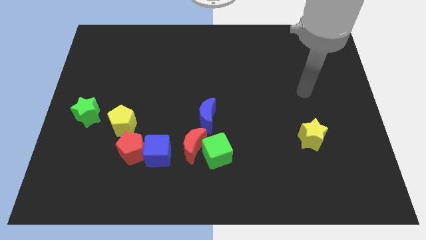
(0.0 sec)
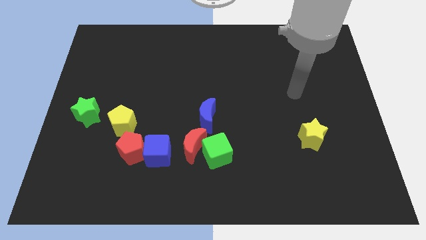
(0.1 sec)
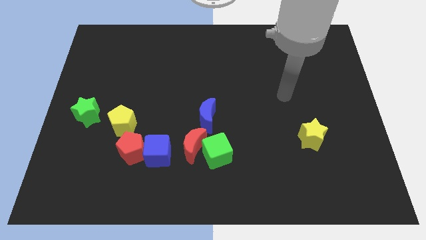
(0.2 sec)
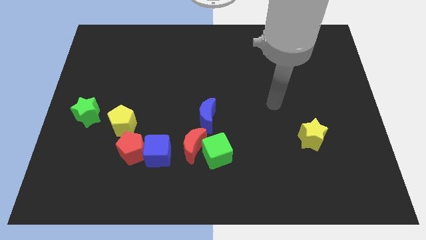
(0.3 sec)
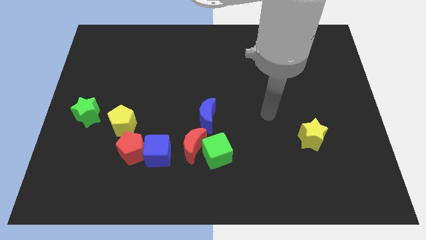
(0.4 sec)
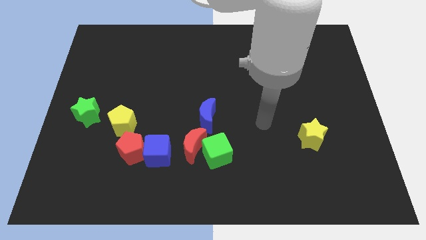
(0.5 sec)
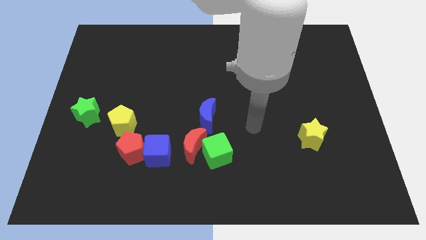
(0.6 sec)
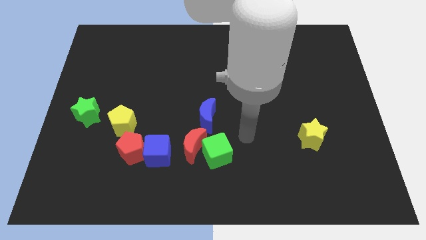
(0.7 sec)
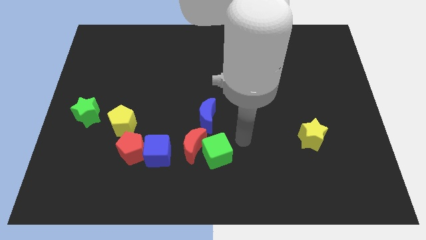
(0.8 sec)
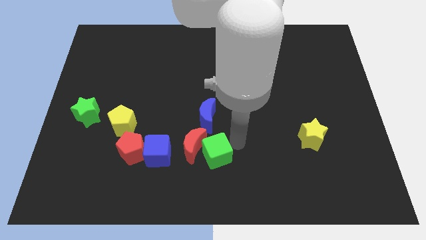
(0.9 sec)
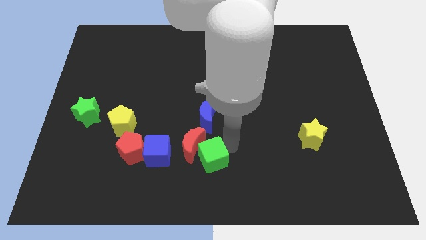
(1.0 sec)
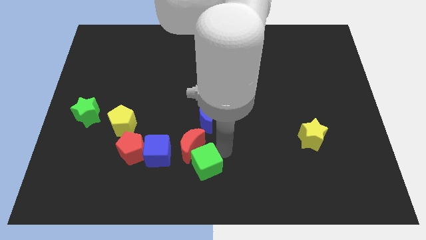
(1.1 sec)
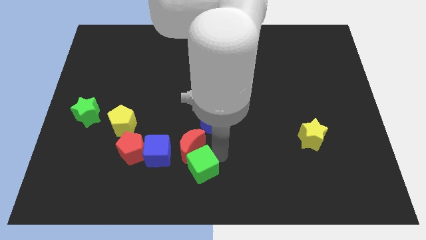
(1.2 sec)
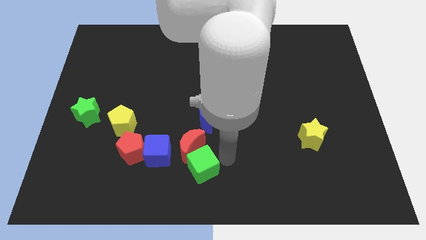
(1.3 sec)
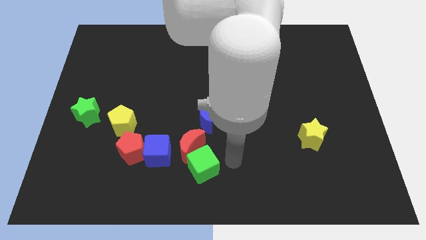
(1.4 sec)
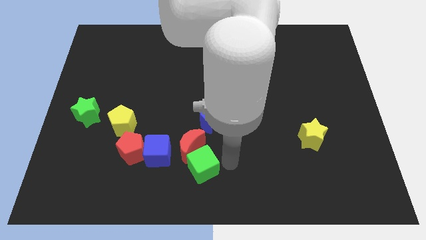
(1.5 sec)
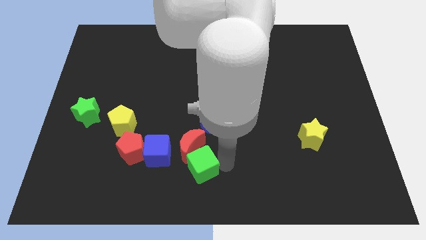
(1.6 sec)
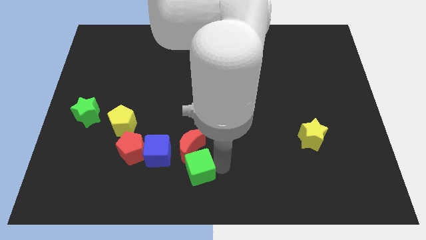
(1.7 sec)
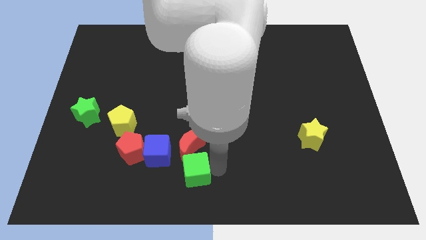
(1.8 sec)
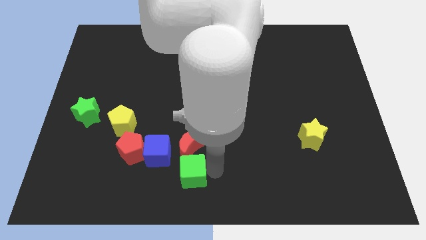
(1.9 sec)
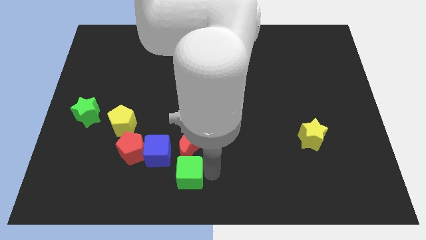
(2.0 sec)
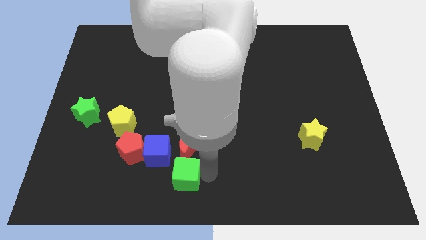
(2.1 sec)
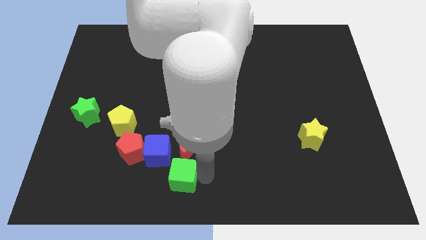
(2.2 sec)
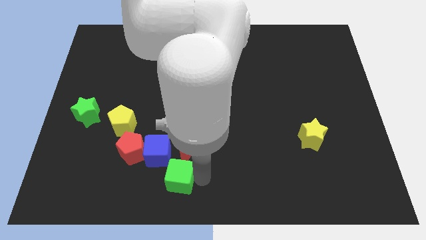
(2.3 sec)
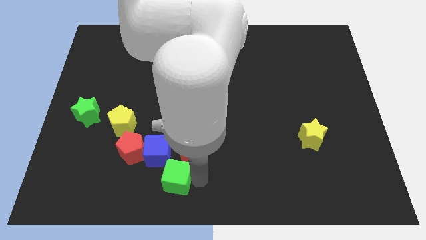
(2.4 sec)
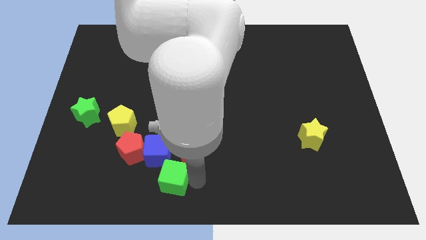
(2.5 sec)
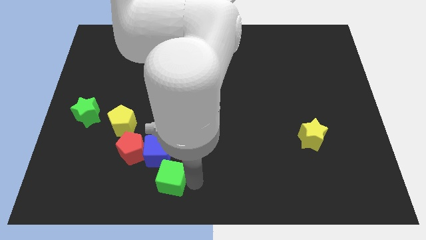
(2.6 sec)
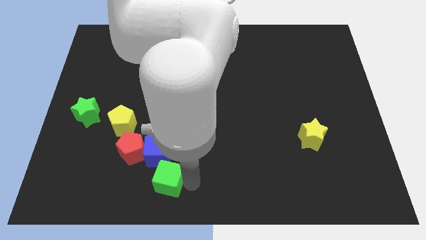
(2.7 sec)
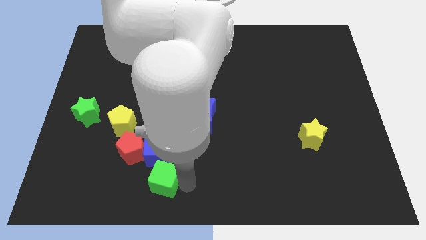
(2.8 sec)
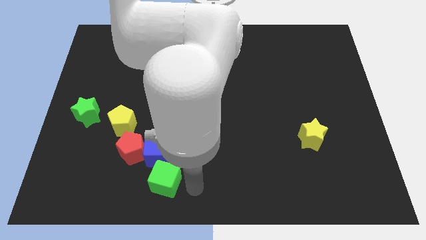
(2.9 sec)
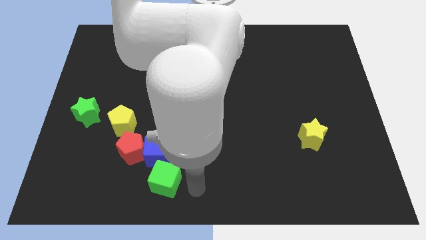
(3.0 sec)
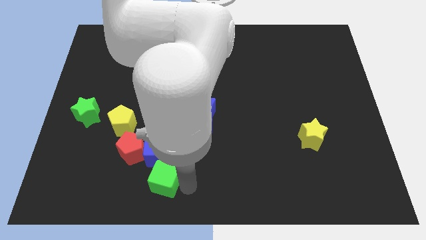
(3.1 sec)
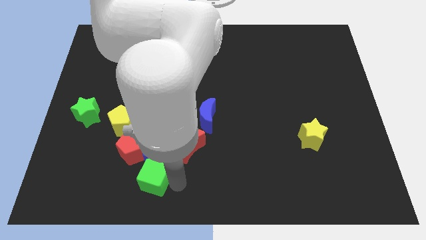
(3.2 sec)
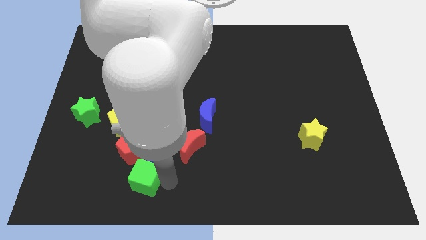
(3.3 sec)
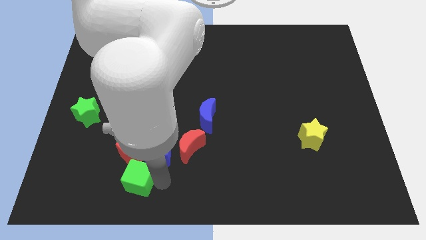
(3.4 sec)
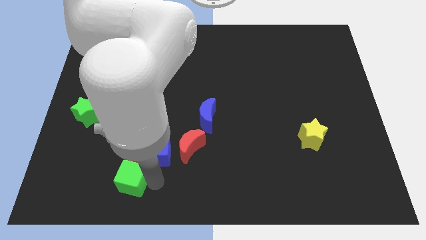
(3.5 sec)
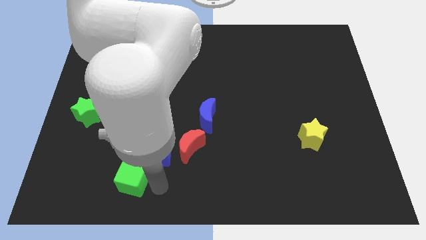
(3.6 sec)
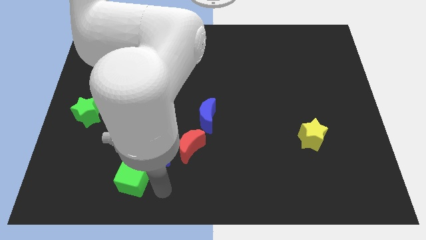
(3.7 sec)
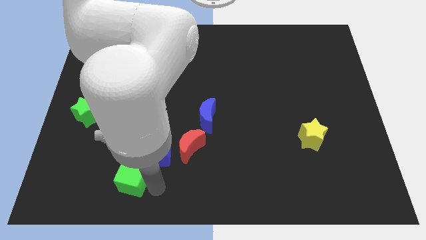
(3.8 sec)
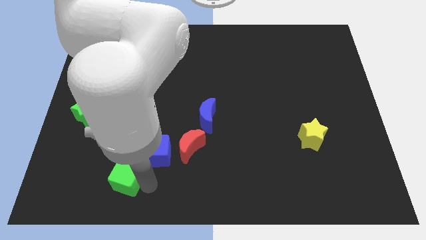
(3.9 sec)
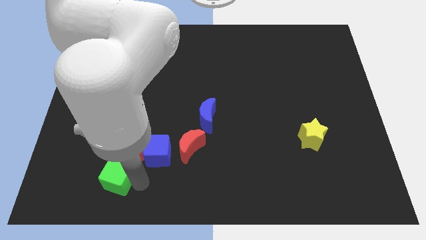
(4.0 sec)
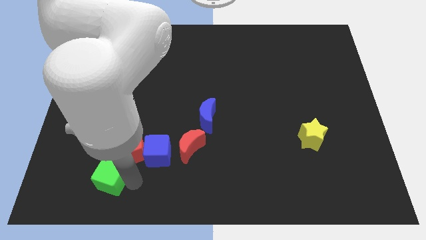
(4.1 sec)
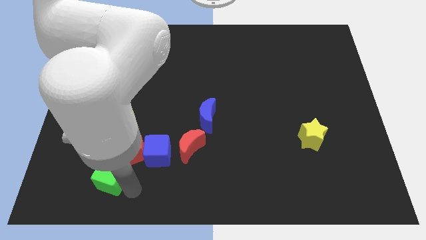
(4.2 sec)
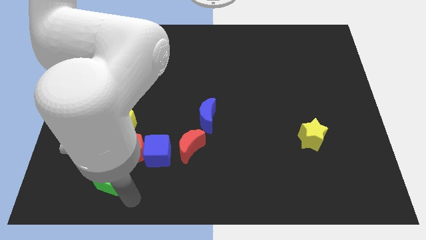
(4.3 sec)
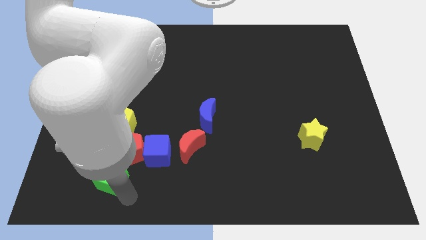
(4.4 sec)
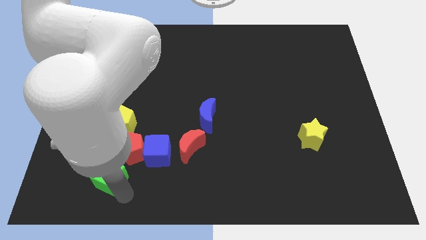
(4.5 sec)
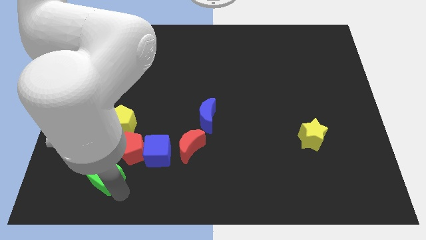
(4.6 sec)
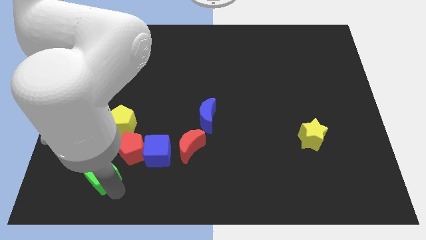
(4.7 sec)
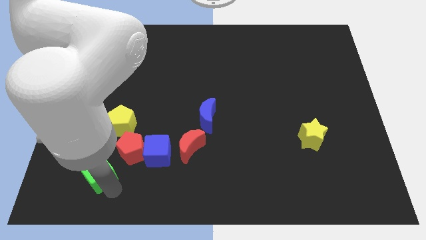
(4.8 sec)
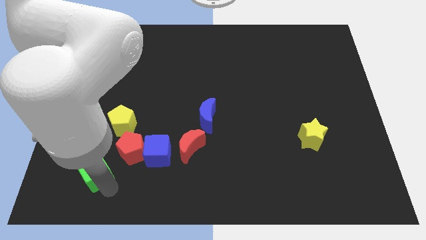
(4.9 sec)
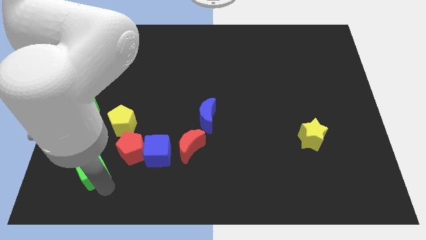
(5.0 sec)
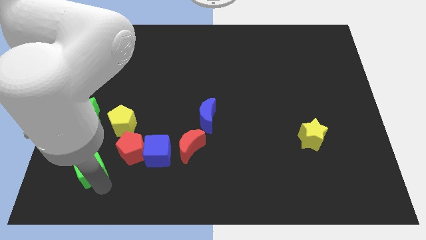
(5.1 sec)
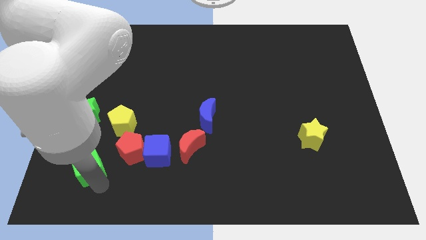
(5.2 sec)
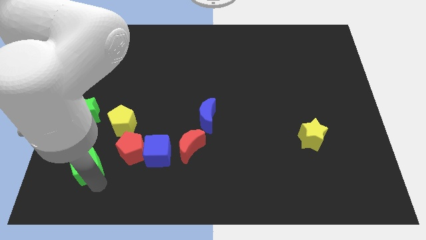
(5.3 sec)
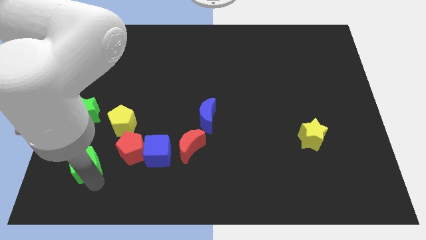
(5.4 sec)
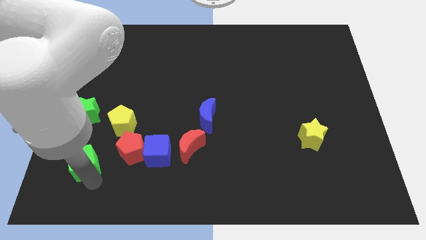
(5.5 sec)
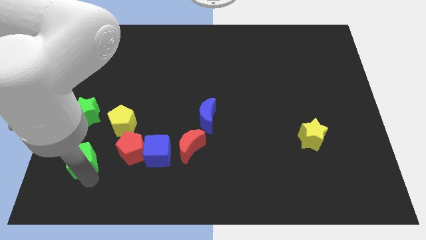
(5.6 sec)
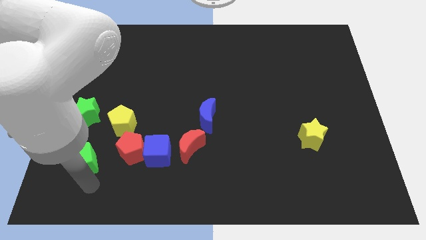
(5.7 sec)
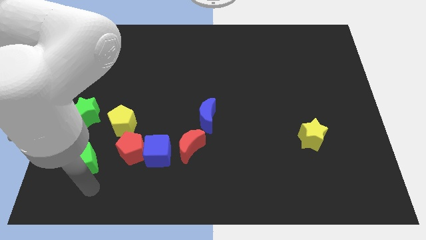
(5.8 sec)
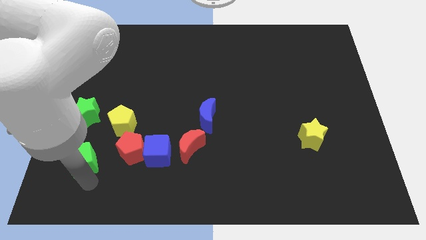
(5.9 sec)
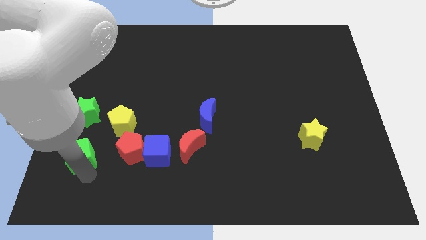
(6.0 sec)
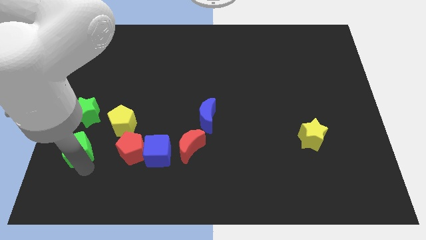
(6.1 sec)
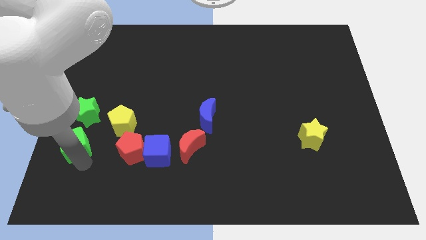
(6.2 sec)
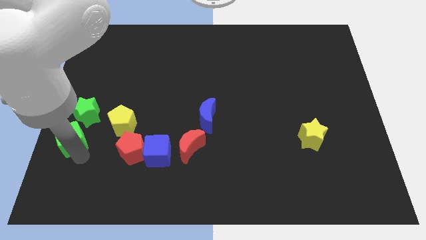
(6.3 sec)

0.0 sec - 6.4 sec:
move the green cube to the center left
